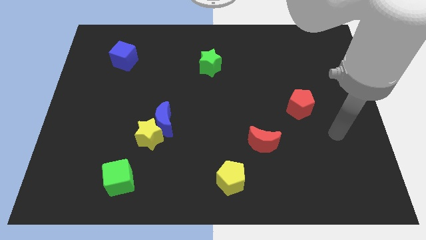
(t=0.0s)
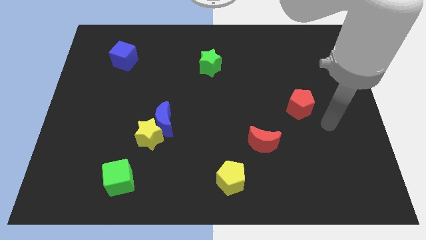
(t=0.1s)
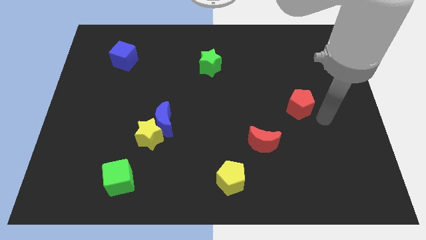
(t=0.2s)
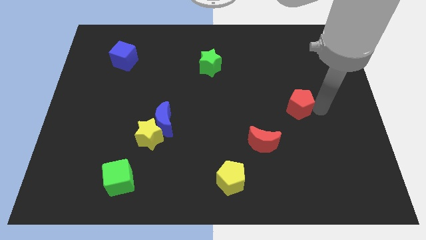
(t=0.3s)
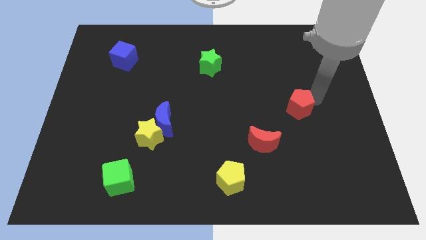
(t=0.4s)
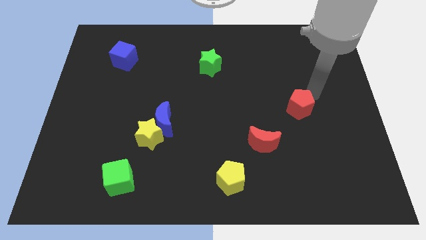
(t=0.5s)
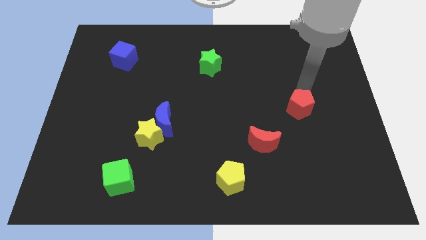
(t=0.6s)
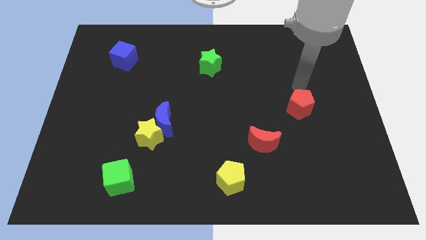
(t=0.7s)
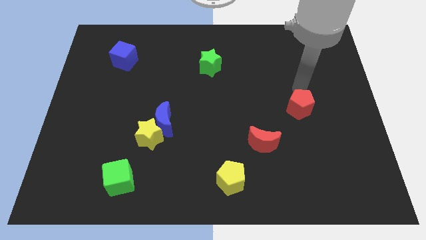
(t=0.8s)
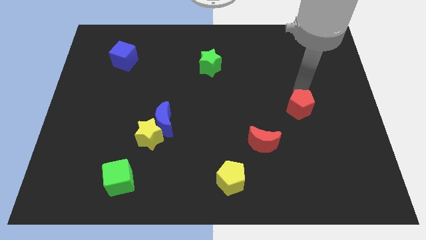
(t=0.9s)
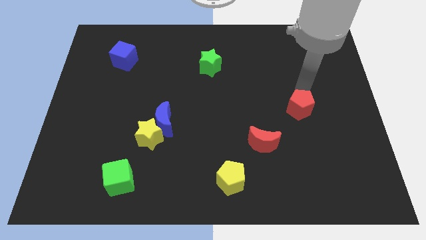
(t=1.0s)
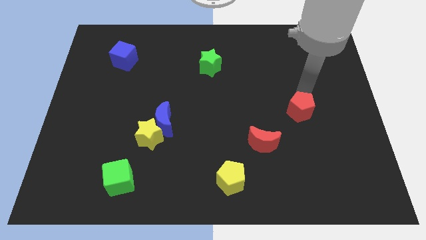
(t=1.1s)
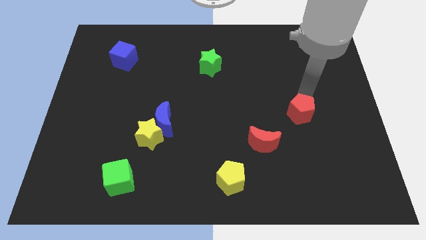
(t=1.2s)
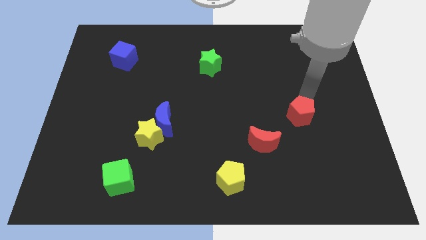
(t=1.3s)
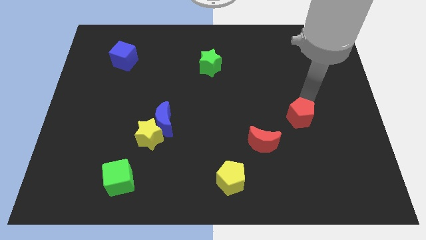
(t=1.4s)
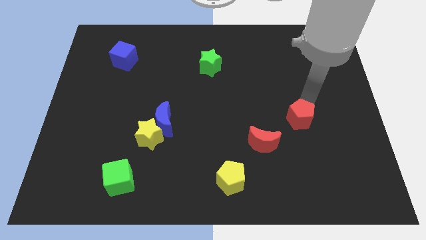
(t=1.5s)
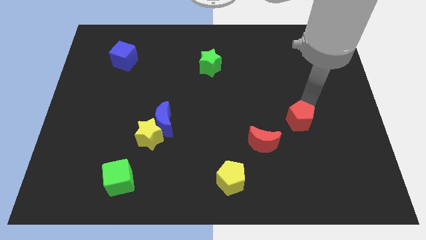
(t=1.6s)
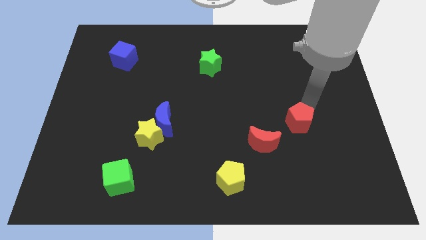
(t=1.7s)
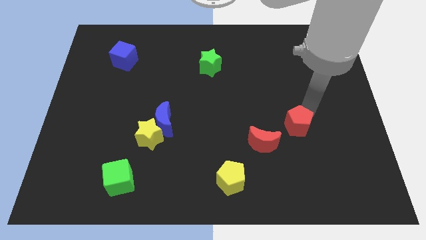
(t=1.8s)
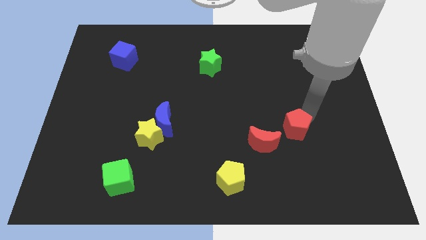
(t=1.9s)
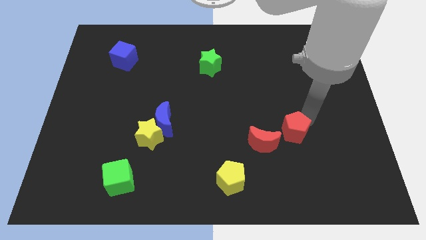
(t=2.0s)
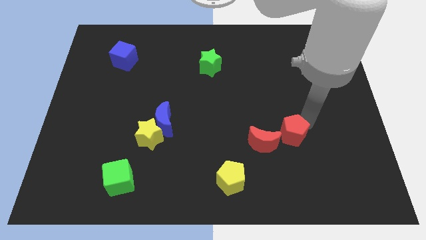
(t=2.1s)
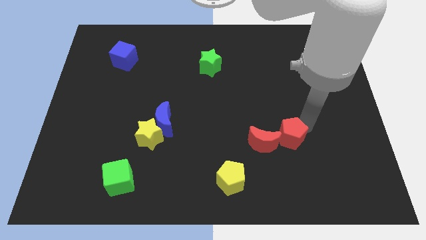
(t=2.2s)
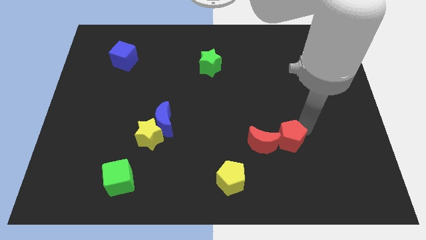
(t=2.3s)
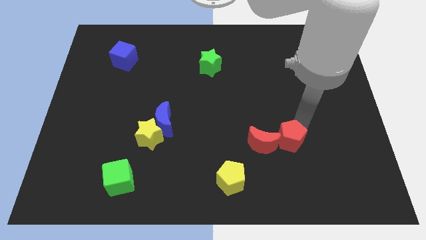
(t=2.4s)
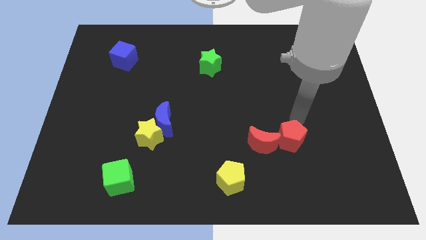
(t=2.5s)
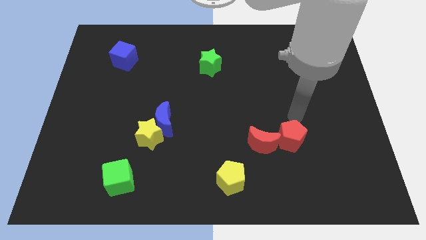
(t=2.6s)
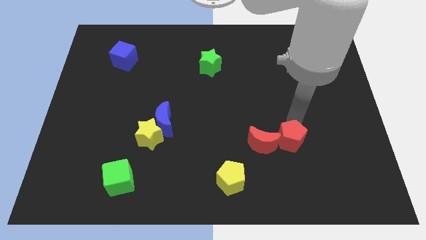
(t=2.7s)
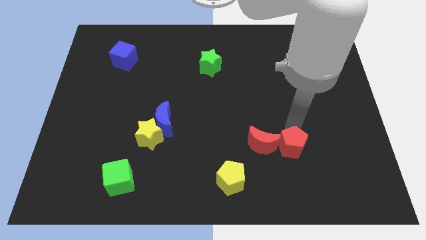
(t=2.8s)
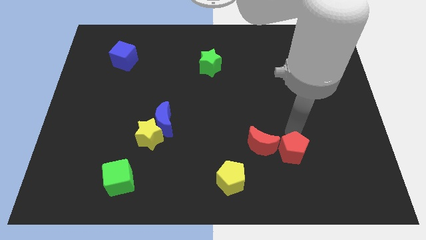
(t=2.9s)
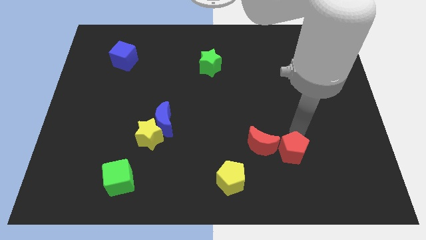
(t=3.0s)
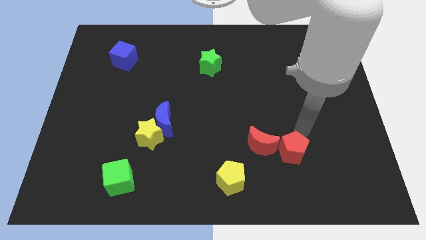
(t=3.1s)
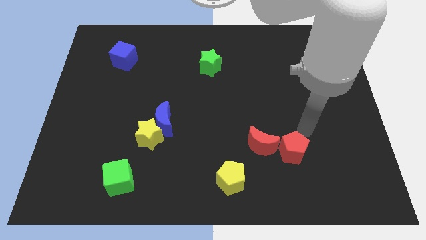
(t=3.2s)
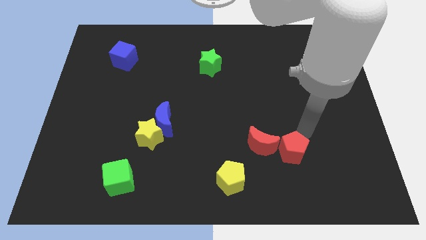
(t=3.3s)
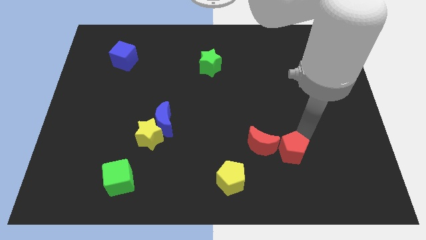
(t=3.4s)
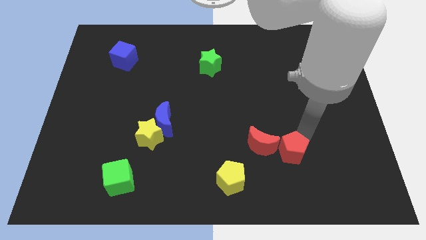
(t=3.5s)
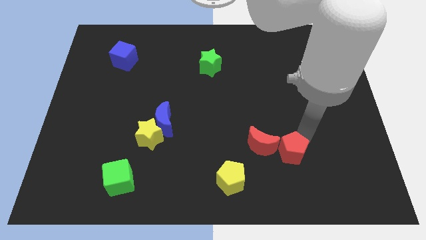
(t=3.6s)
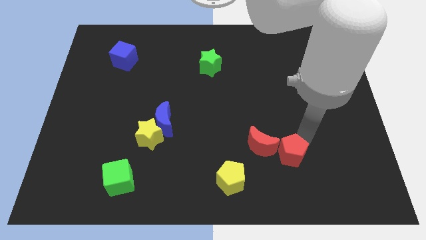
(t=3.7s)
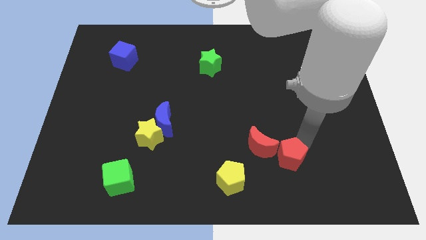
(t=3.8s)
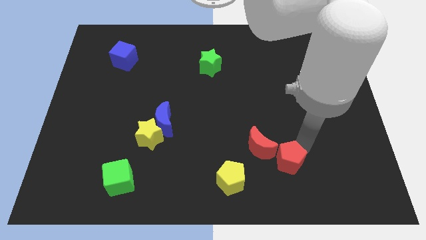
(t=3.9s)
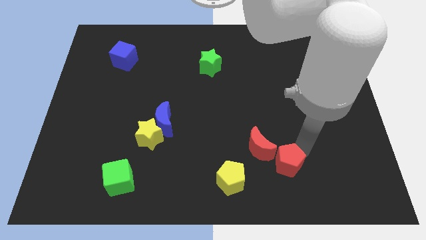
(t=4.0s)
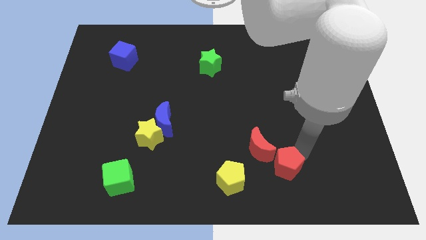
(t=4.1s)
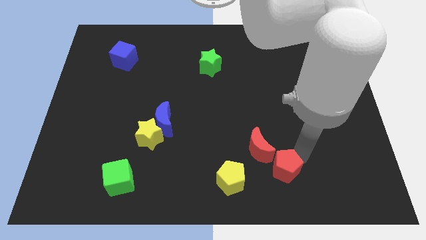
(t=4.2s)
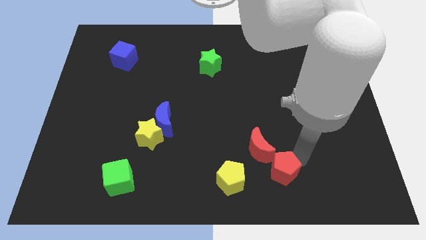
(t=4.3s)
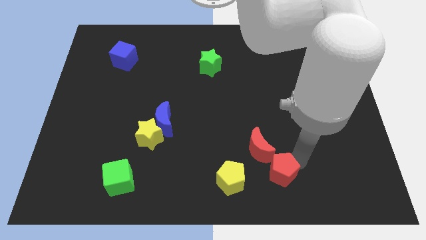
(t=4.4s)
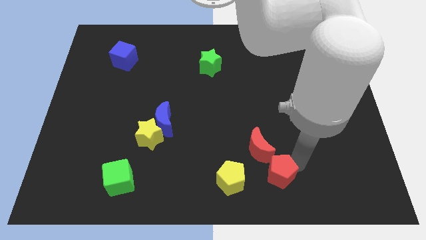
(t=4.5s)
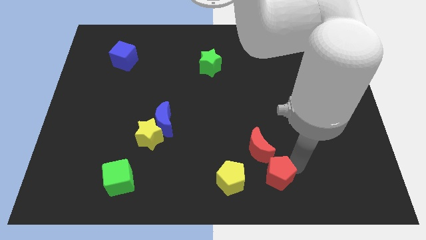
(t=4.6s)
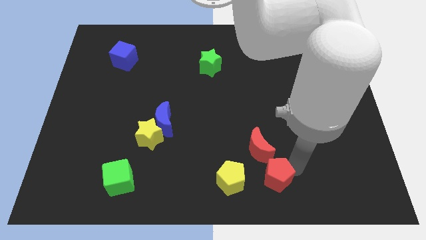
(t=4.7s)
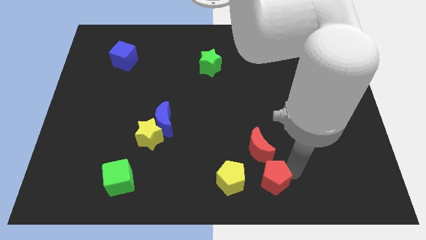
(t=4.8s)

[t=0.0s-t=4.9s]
slide the red pentagon to the bottom side

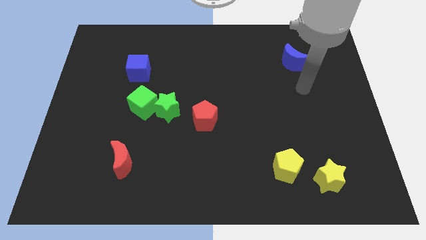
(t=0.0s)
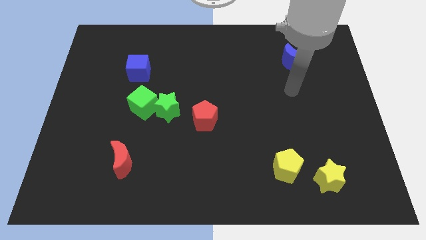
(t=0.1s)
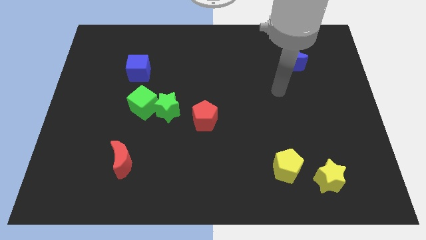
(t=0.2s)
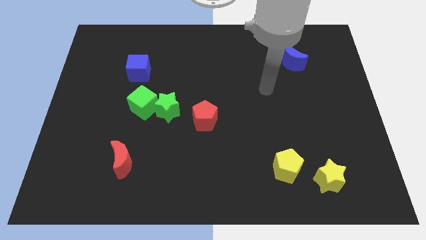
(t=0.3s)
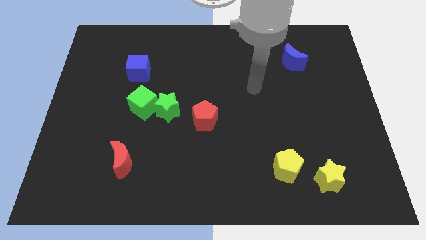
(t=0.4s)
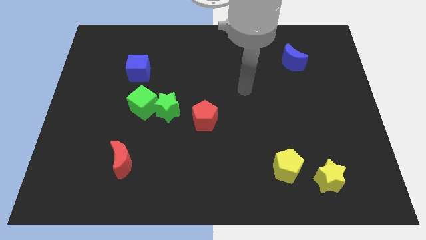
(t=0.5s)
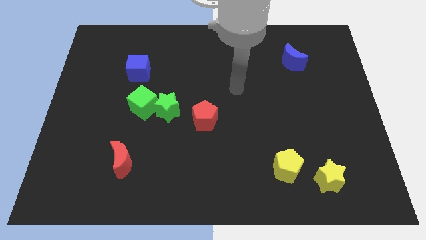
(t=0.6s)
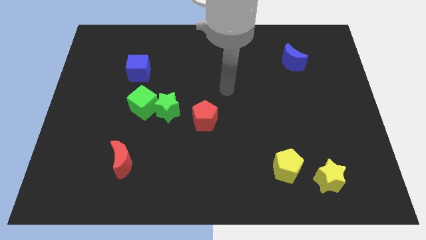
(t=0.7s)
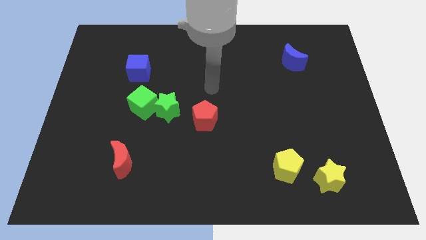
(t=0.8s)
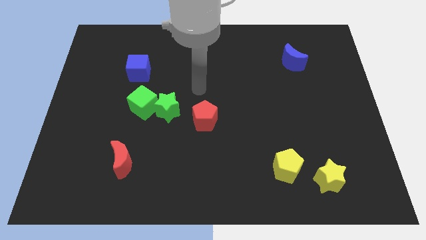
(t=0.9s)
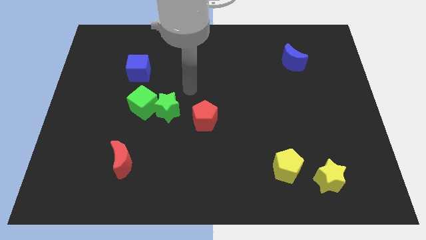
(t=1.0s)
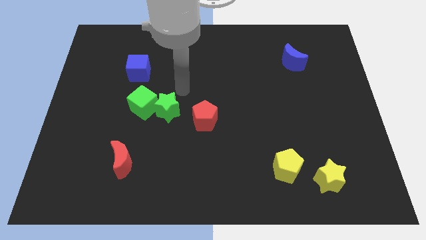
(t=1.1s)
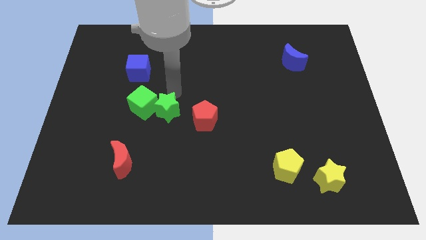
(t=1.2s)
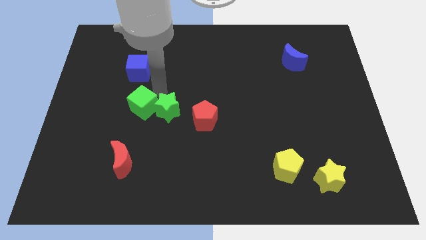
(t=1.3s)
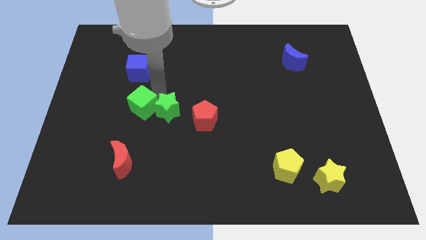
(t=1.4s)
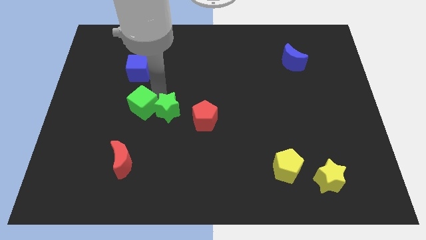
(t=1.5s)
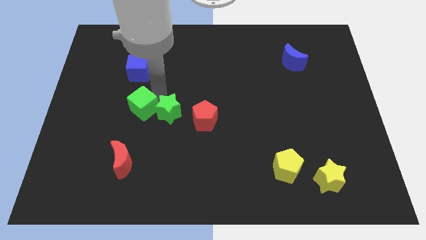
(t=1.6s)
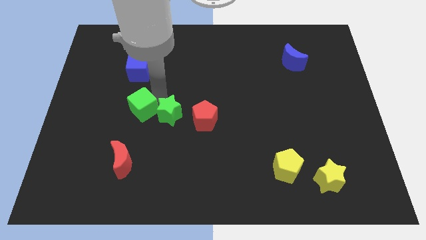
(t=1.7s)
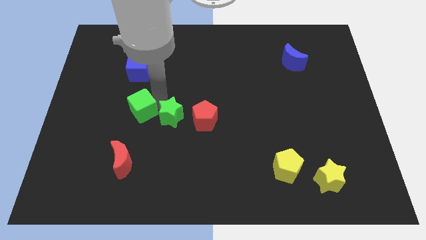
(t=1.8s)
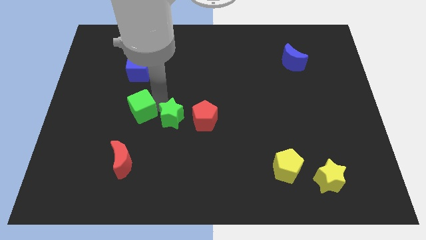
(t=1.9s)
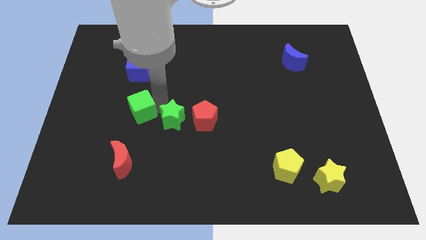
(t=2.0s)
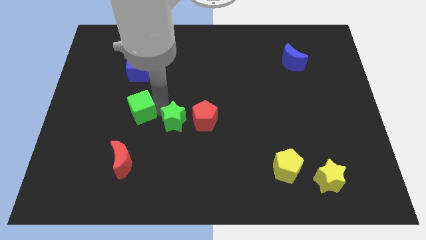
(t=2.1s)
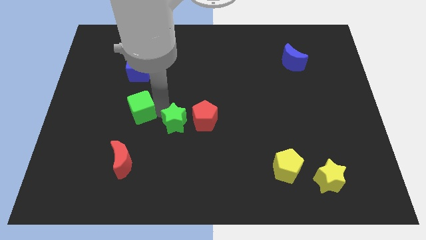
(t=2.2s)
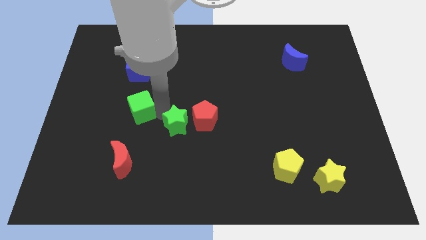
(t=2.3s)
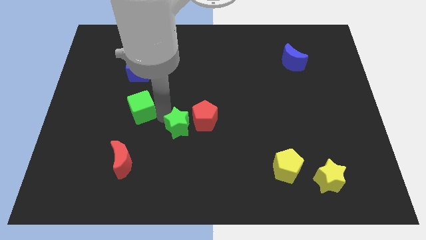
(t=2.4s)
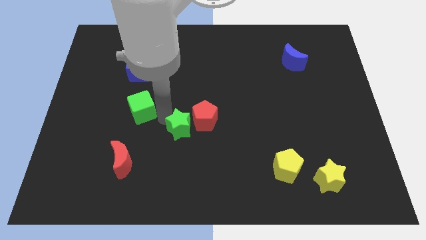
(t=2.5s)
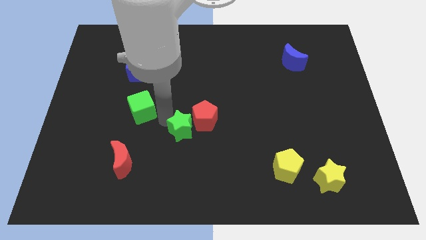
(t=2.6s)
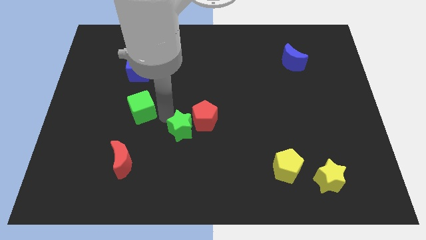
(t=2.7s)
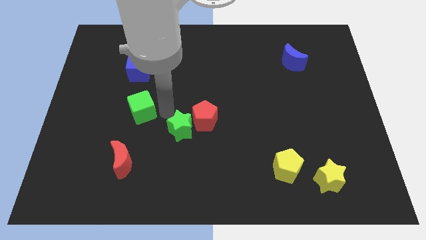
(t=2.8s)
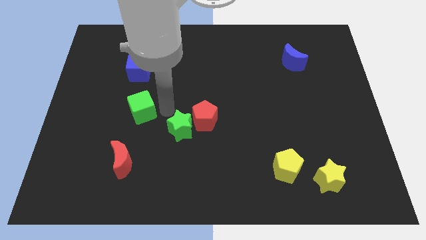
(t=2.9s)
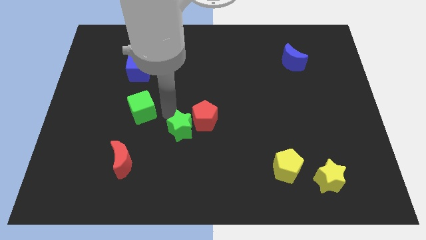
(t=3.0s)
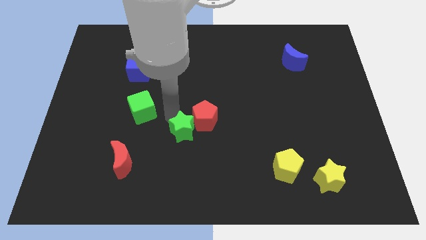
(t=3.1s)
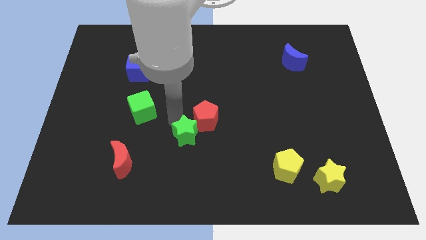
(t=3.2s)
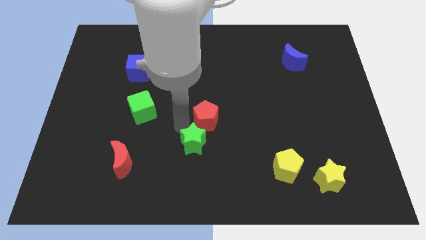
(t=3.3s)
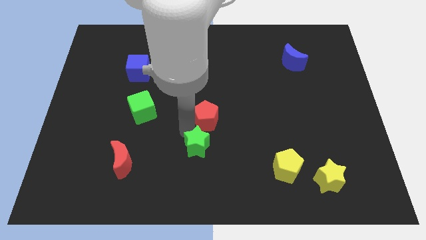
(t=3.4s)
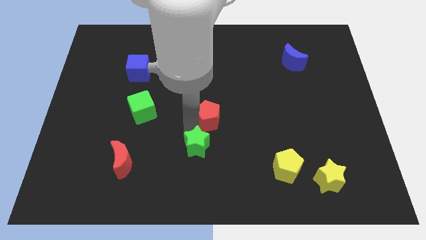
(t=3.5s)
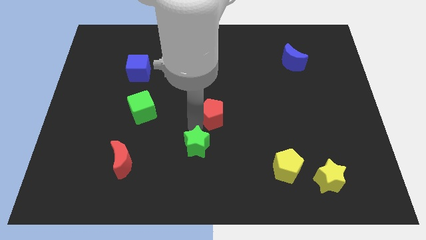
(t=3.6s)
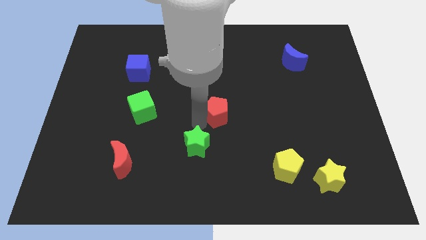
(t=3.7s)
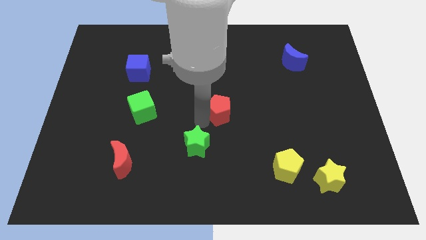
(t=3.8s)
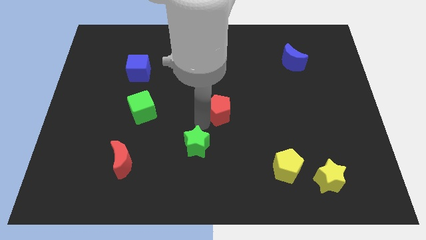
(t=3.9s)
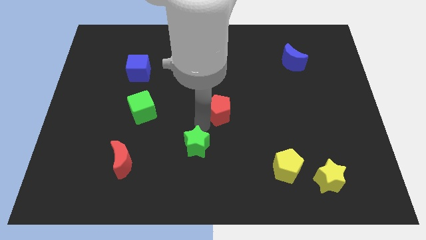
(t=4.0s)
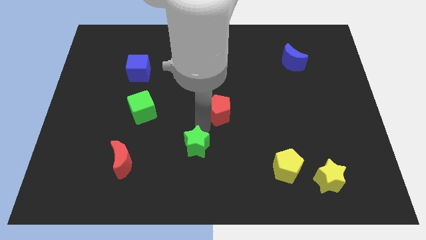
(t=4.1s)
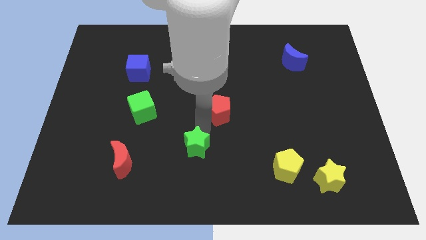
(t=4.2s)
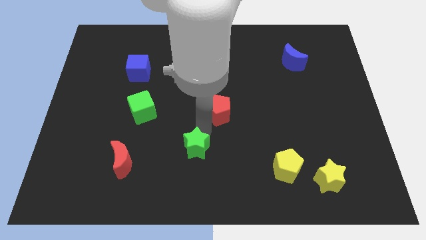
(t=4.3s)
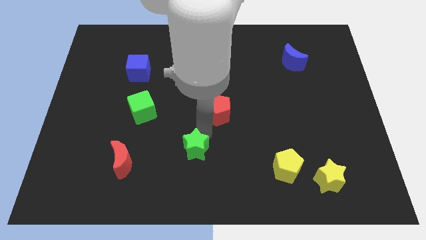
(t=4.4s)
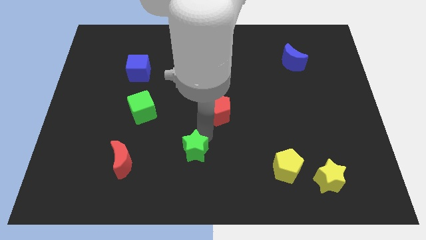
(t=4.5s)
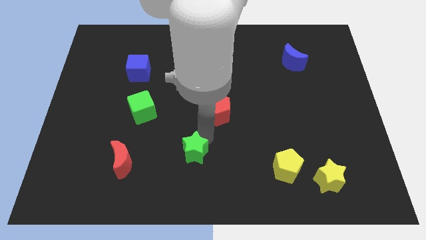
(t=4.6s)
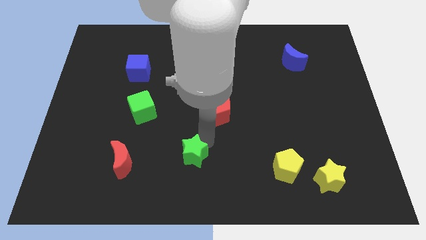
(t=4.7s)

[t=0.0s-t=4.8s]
move the green star to the bottom
